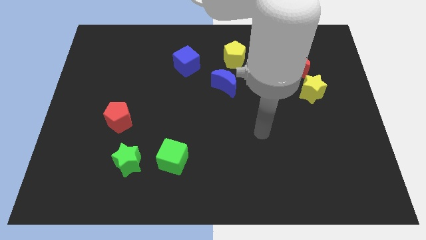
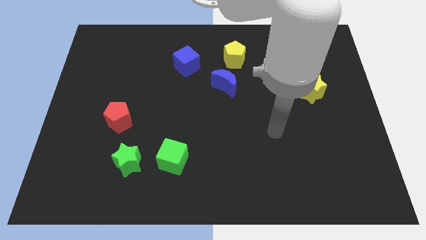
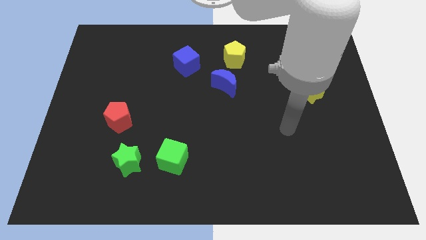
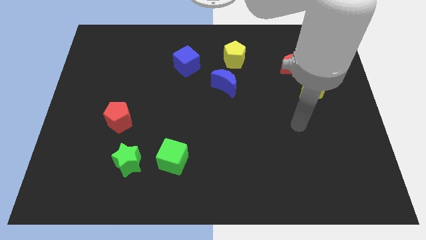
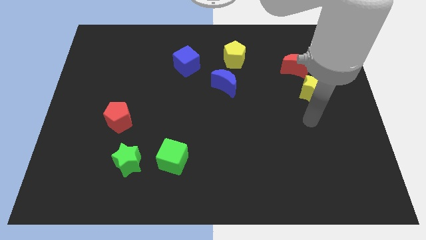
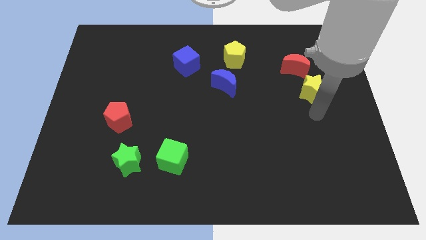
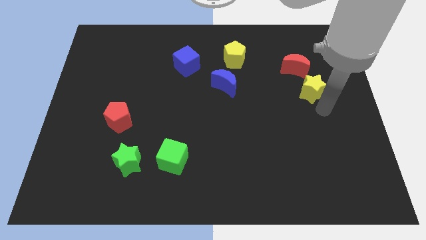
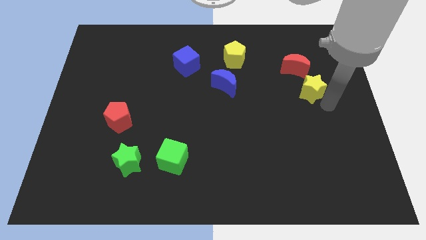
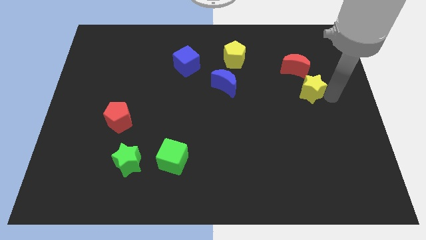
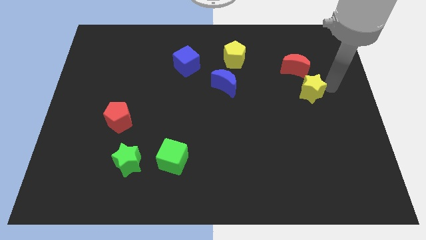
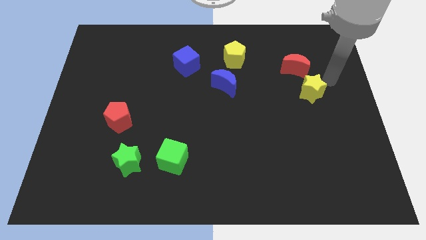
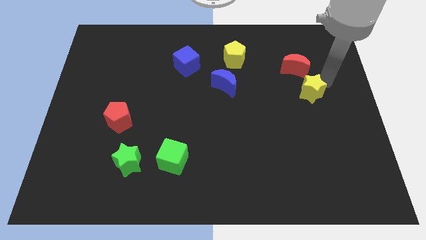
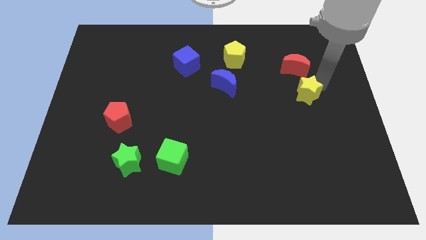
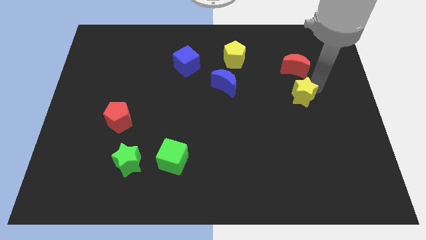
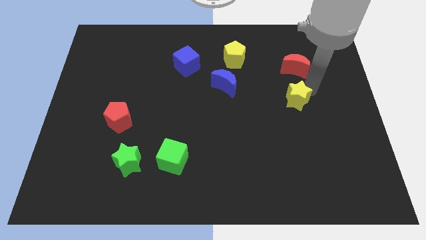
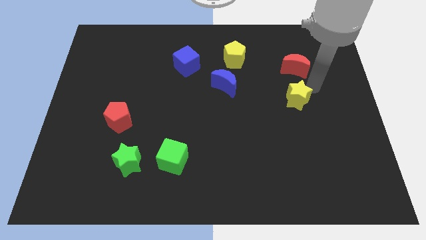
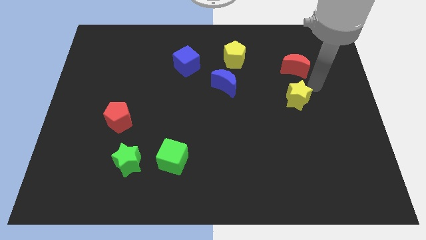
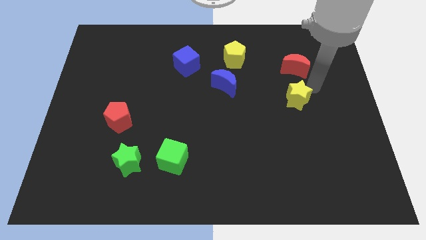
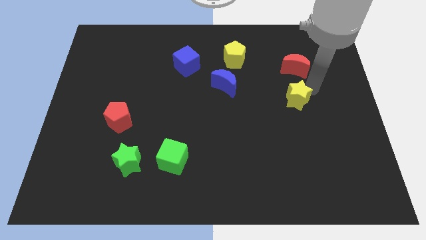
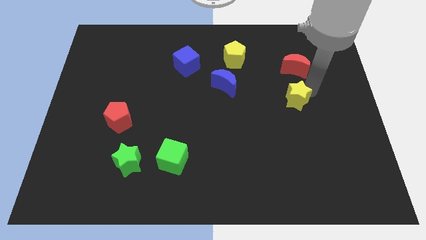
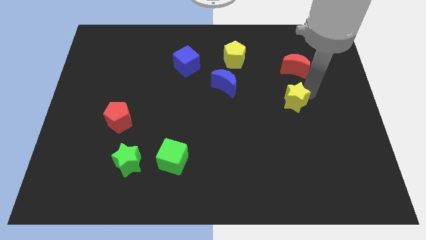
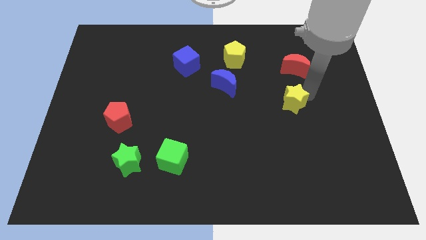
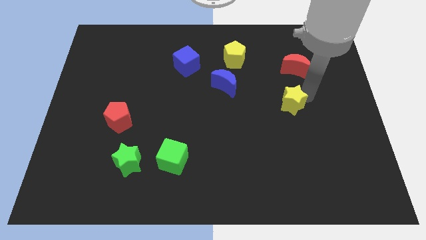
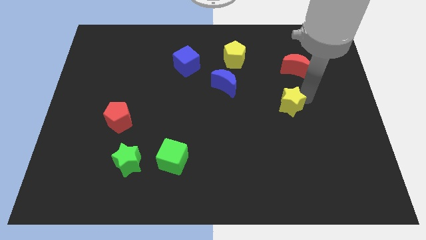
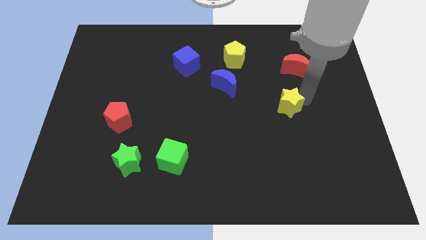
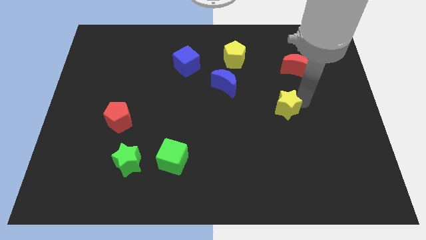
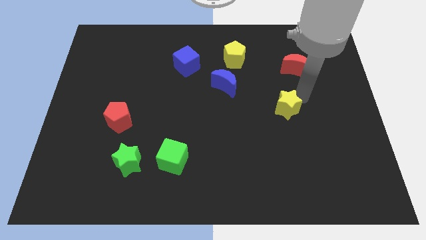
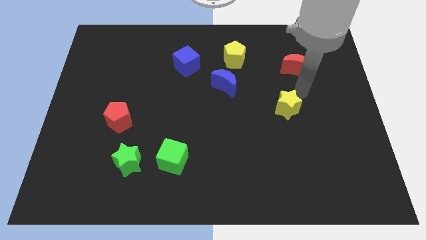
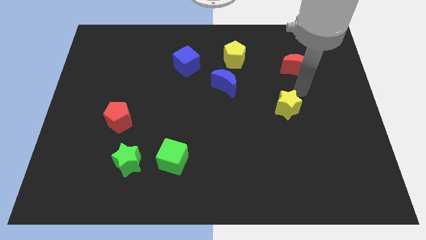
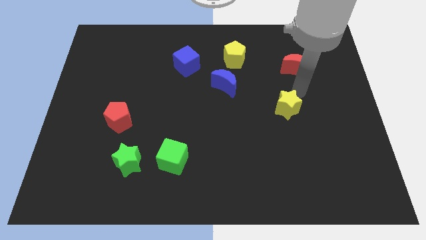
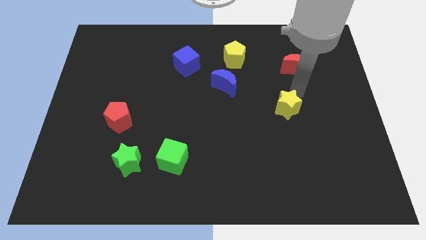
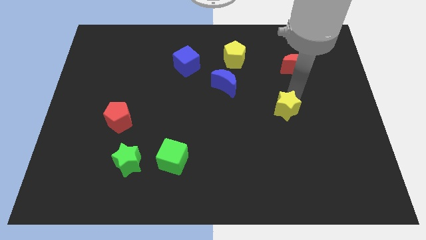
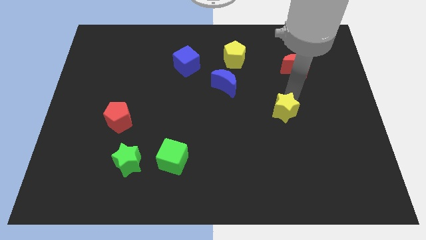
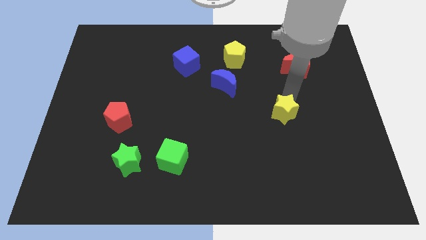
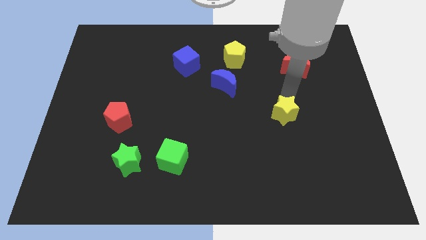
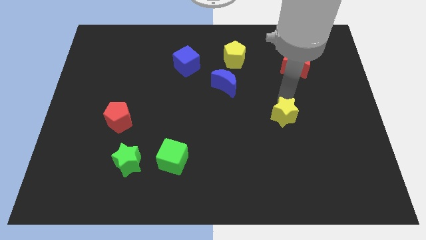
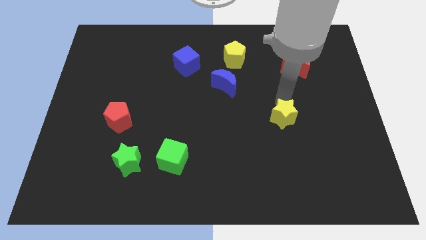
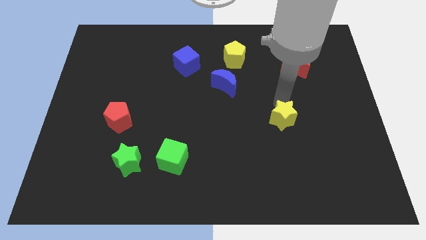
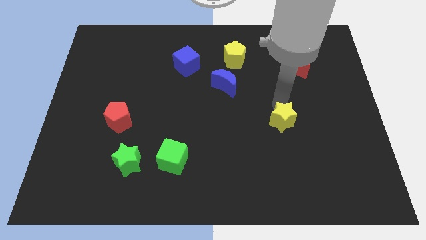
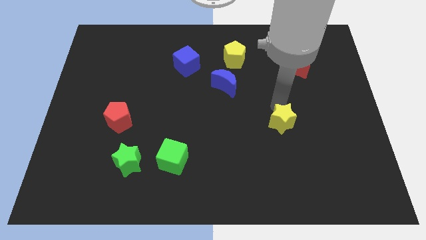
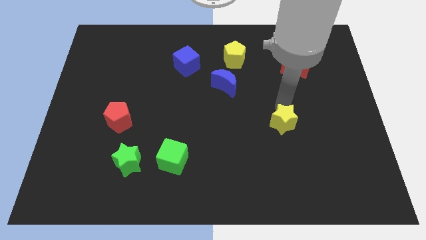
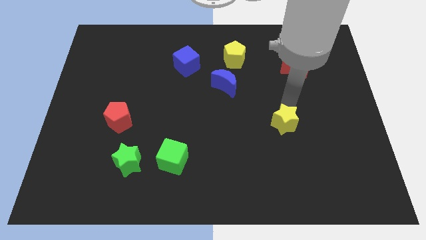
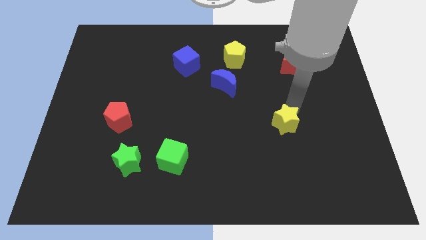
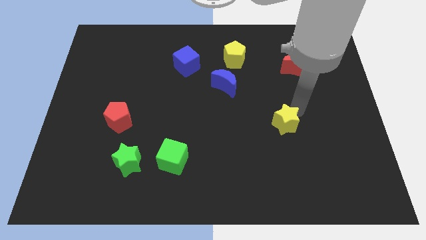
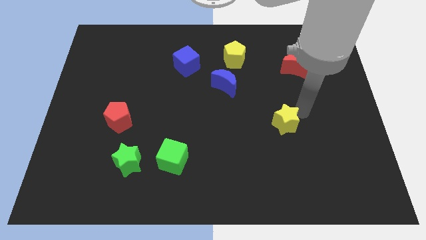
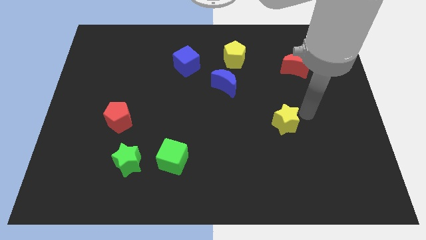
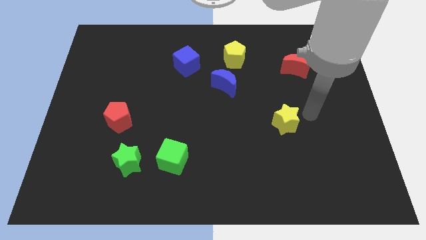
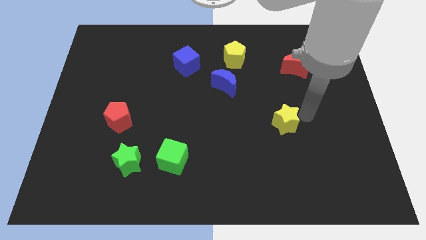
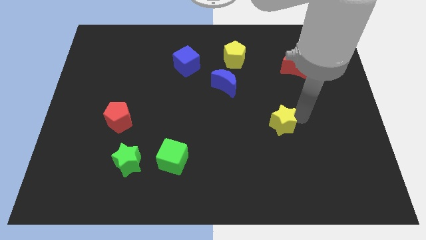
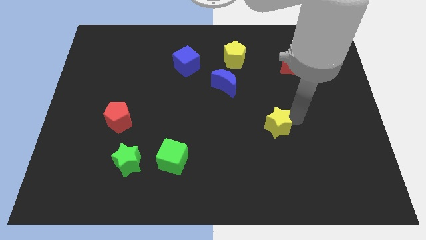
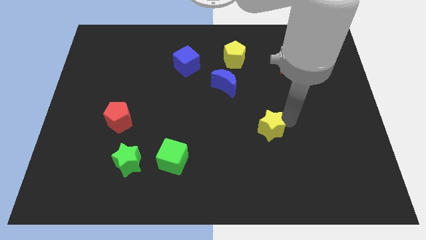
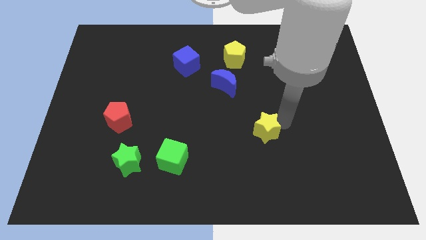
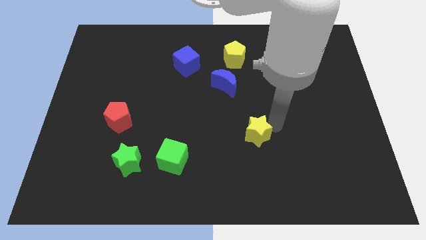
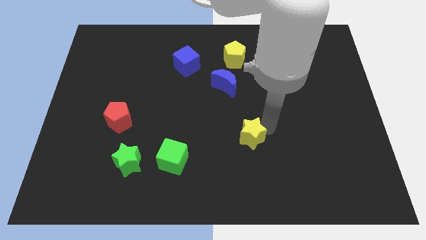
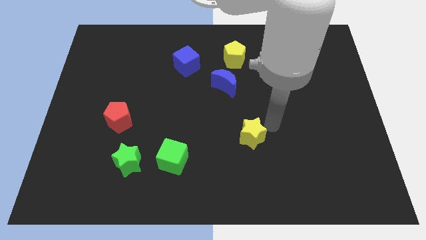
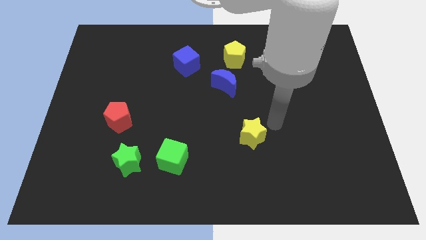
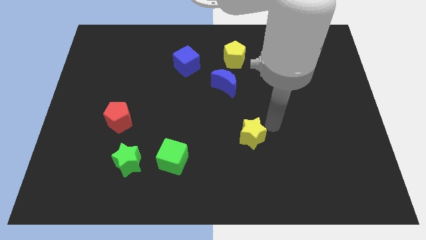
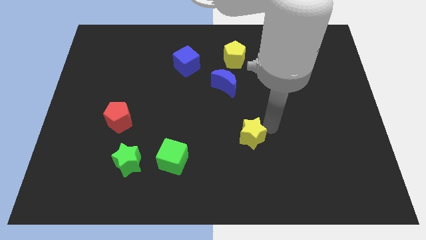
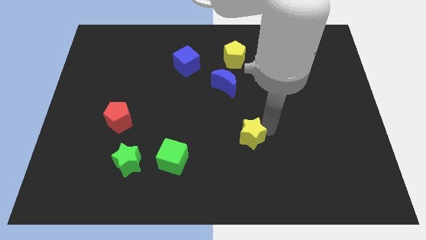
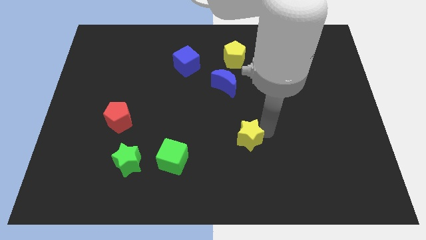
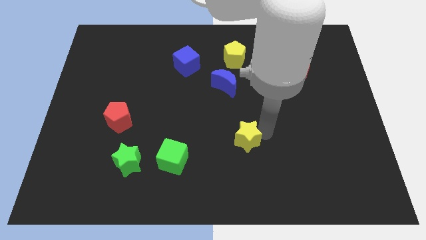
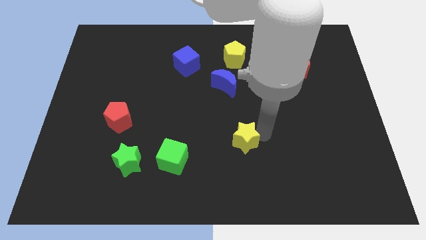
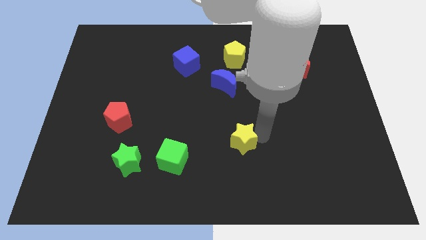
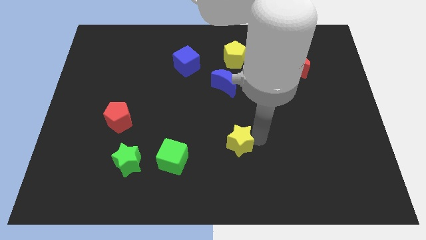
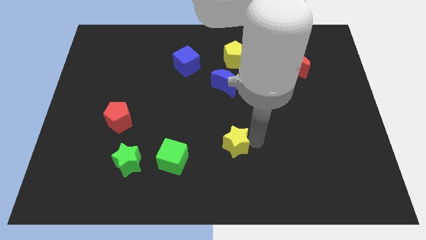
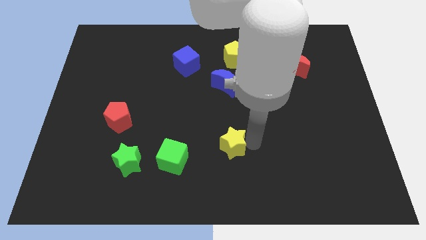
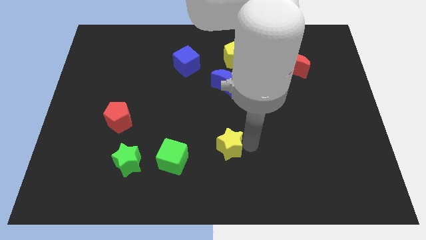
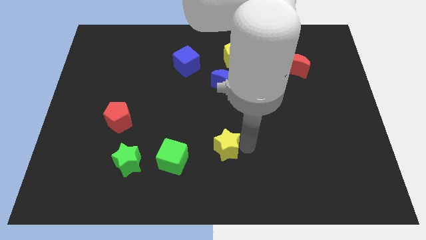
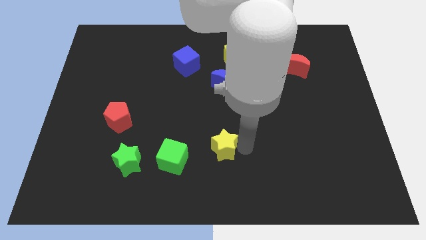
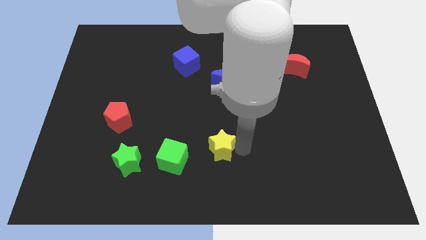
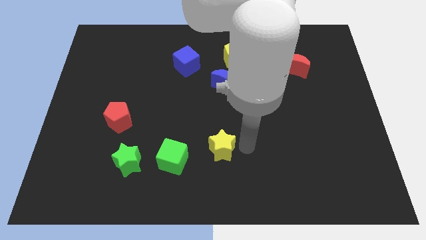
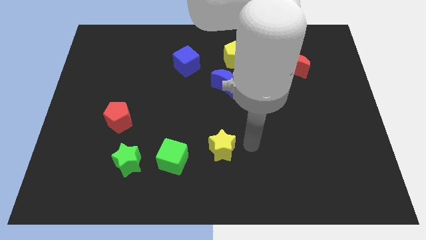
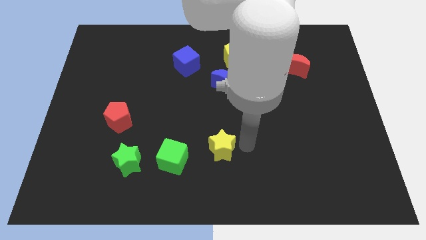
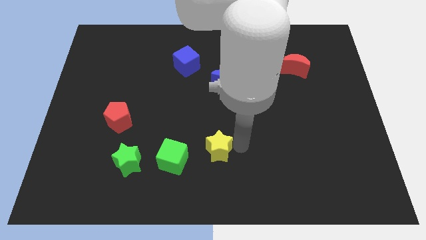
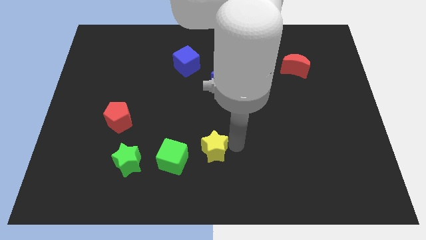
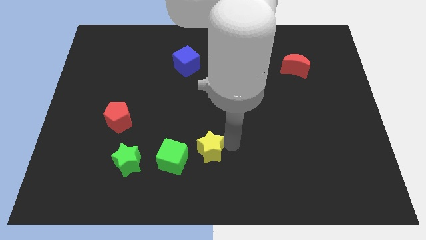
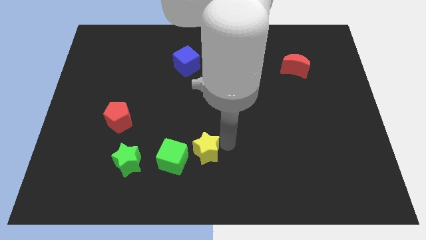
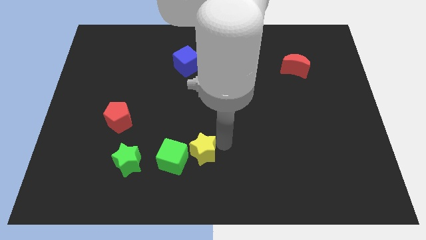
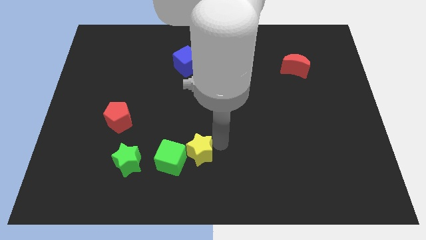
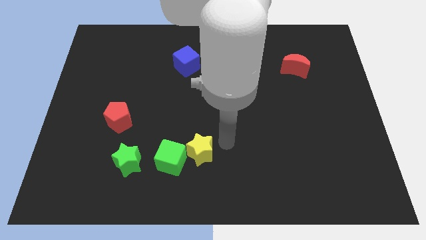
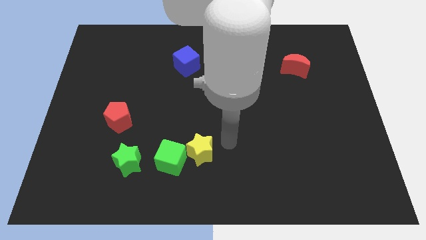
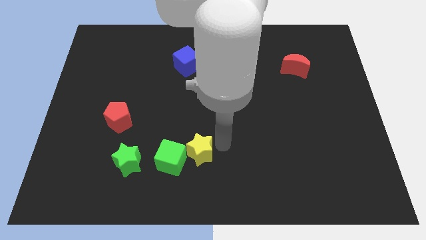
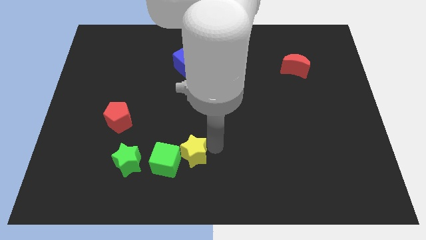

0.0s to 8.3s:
move the yellow star to the green cube
